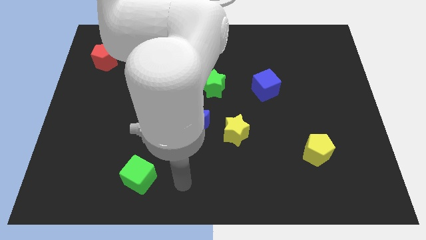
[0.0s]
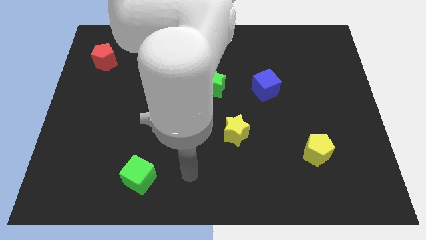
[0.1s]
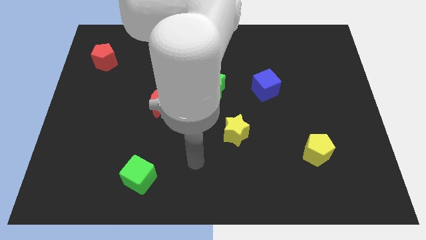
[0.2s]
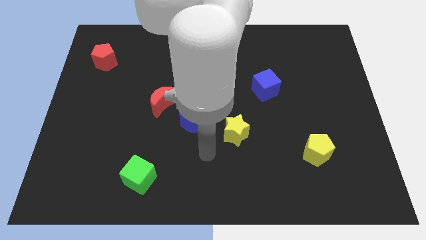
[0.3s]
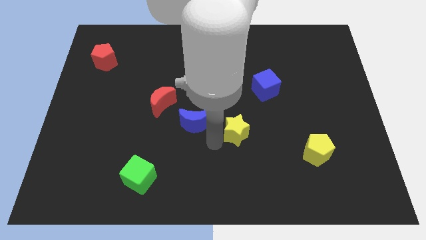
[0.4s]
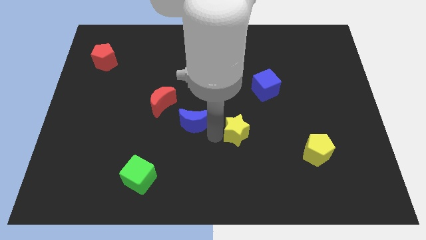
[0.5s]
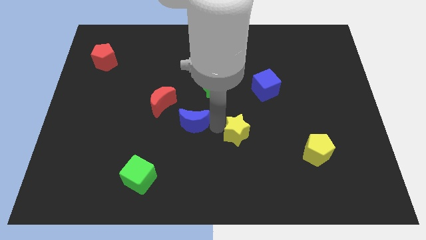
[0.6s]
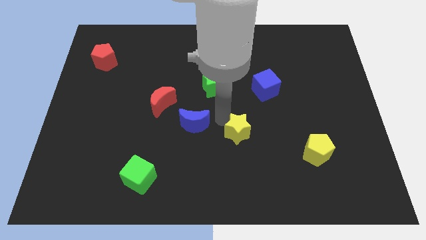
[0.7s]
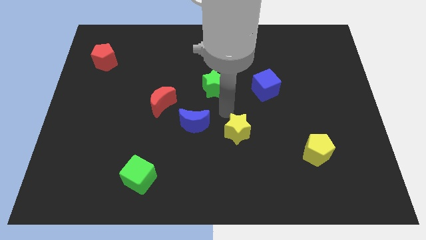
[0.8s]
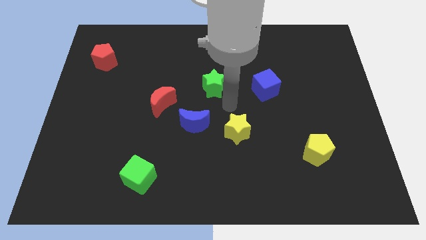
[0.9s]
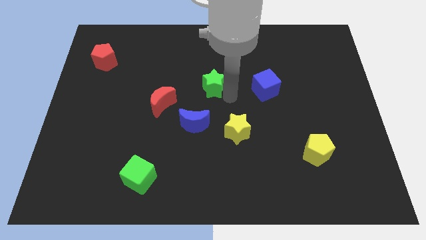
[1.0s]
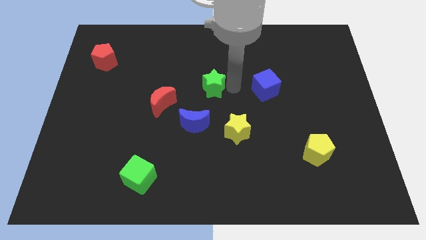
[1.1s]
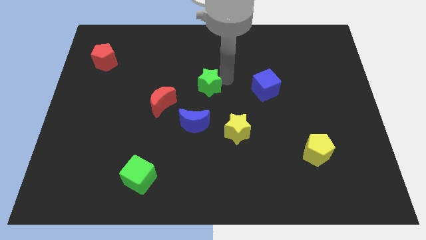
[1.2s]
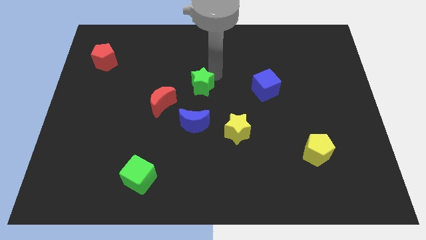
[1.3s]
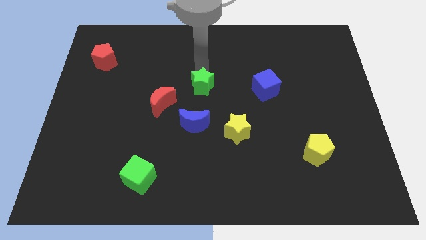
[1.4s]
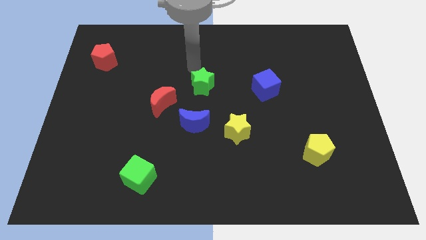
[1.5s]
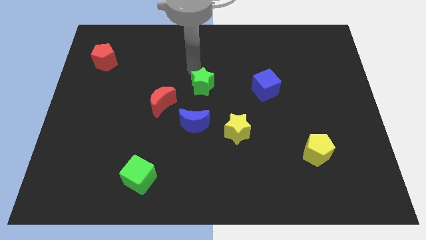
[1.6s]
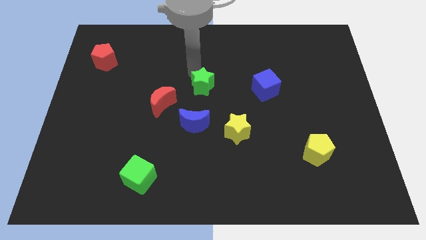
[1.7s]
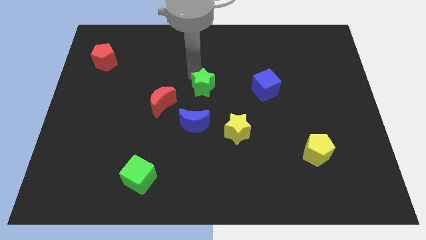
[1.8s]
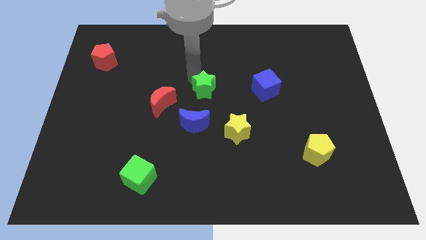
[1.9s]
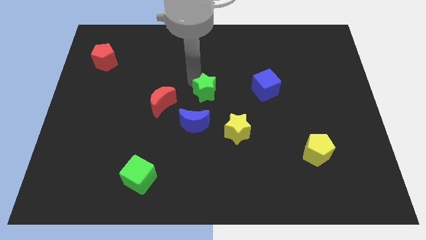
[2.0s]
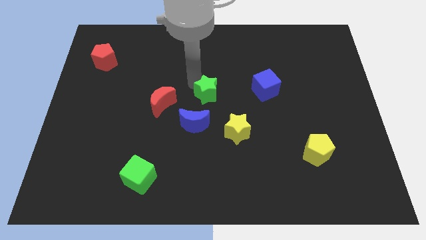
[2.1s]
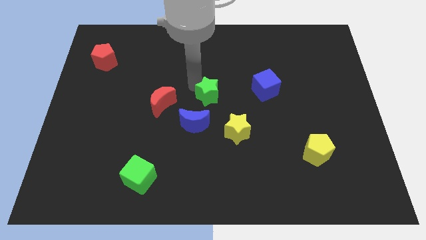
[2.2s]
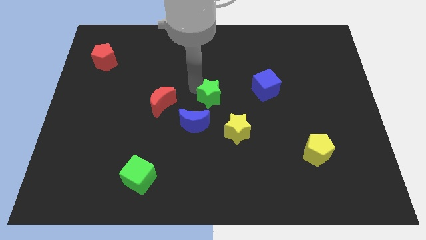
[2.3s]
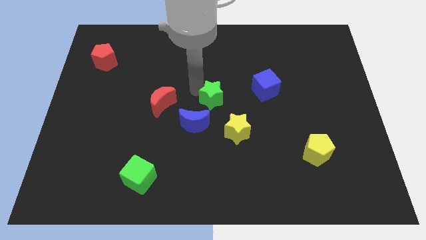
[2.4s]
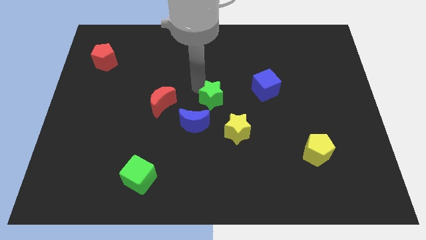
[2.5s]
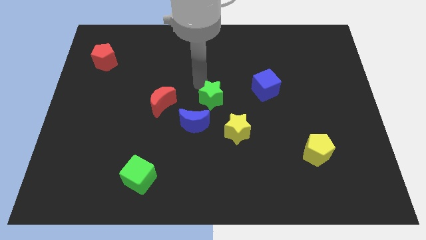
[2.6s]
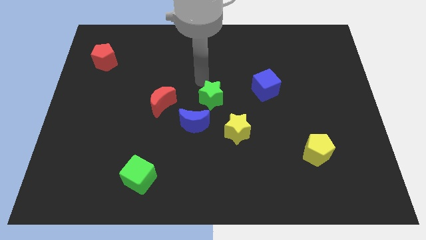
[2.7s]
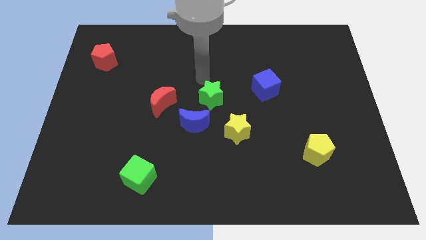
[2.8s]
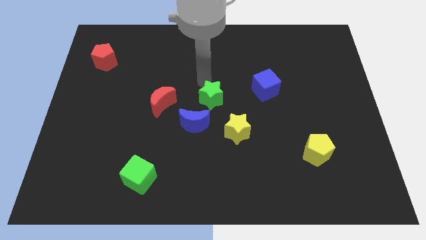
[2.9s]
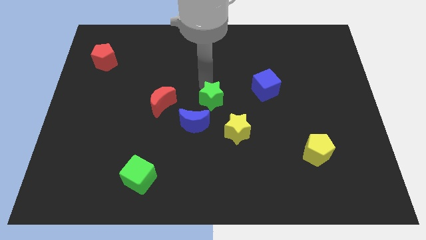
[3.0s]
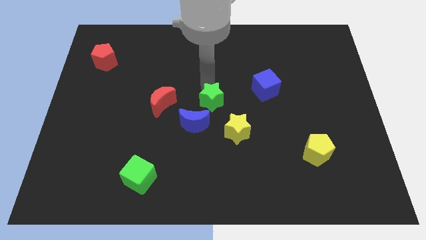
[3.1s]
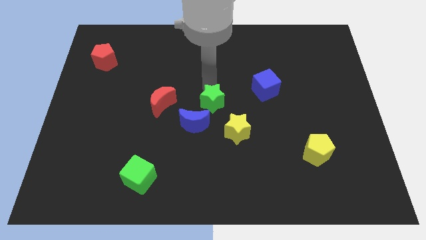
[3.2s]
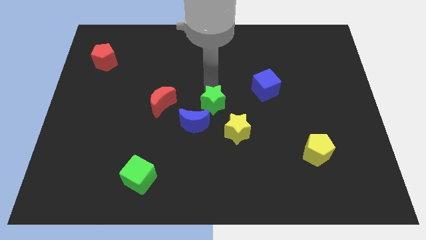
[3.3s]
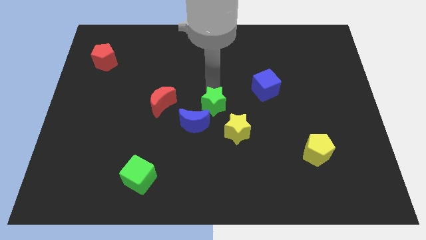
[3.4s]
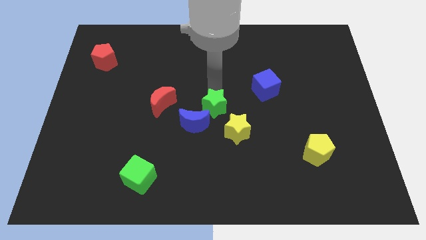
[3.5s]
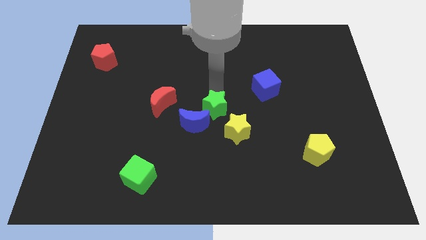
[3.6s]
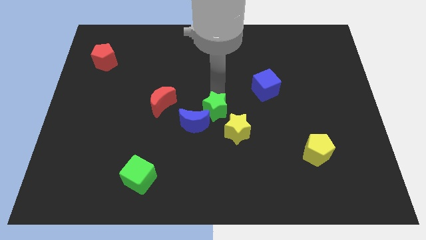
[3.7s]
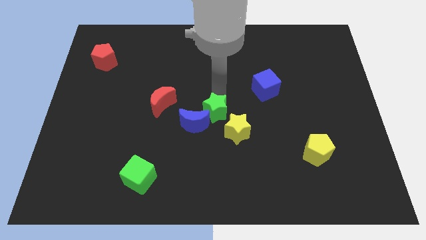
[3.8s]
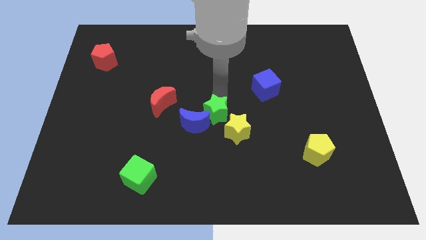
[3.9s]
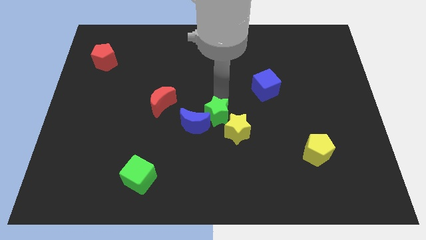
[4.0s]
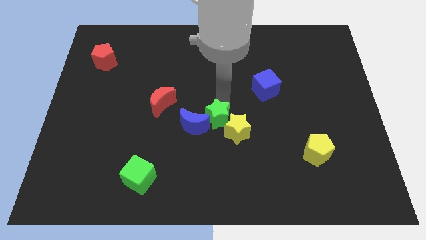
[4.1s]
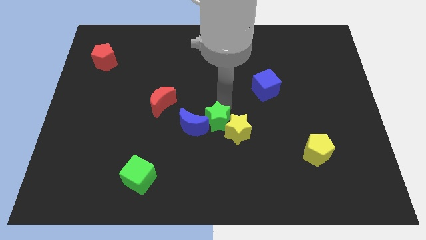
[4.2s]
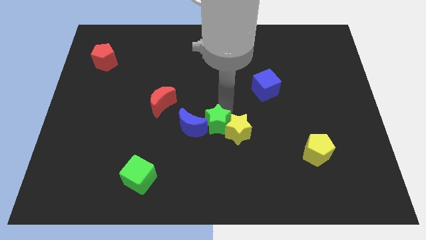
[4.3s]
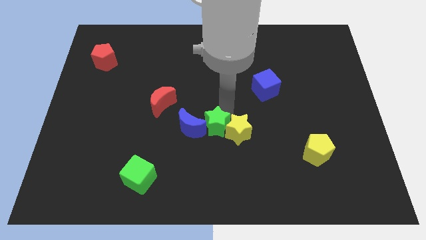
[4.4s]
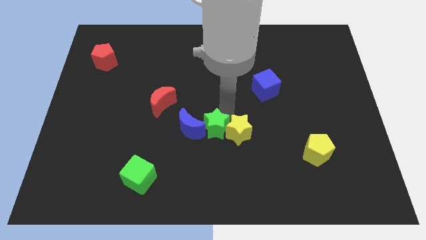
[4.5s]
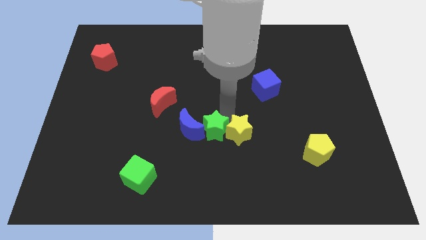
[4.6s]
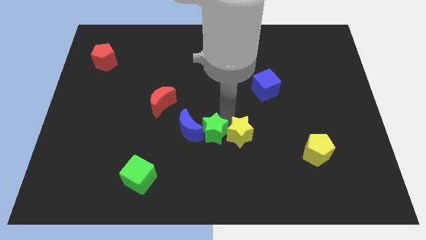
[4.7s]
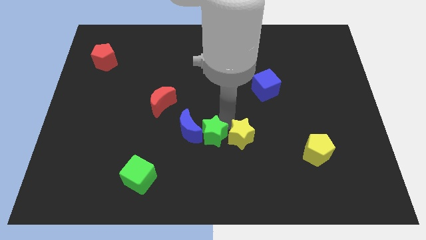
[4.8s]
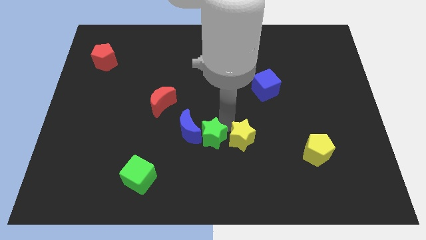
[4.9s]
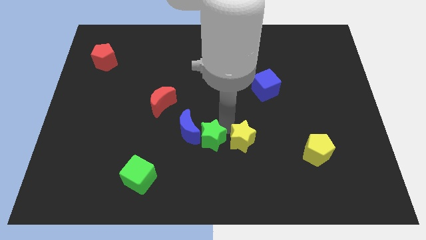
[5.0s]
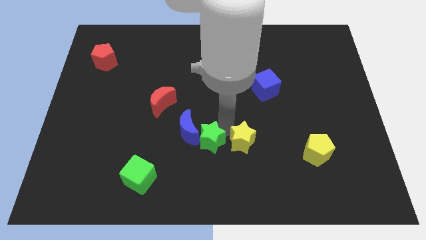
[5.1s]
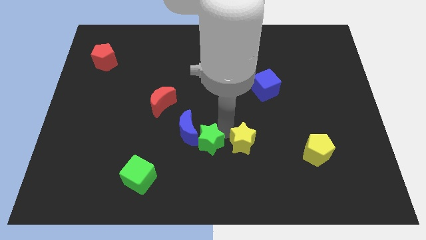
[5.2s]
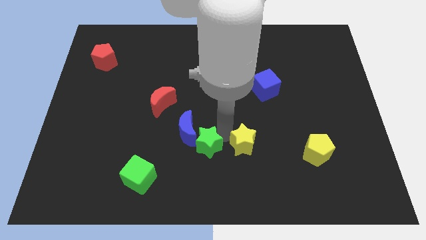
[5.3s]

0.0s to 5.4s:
slide the green star downwards and then left a little bit

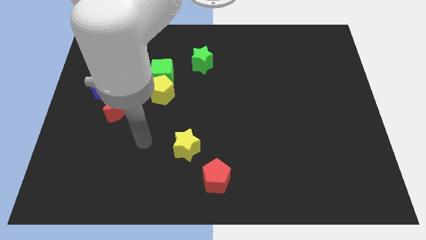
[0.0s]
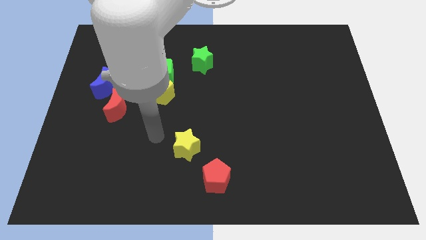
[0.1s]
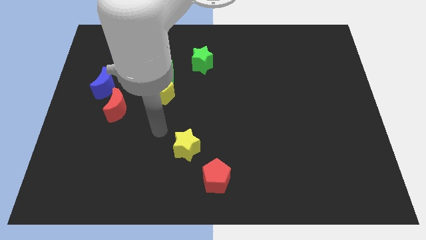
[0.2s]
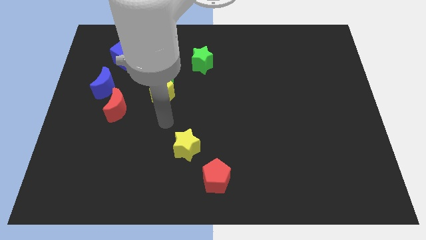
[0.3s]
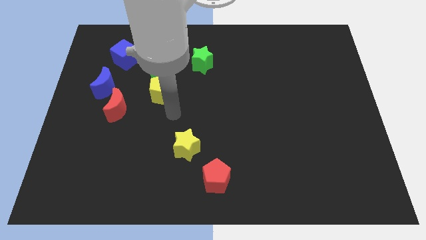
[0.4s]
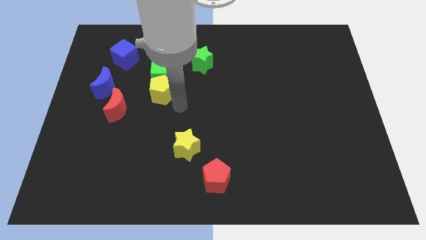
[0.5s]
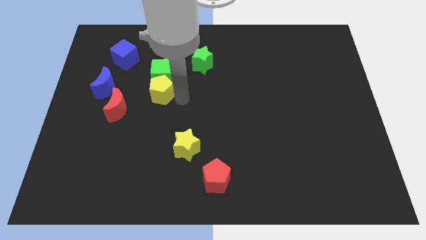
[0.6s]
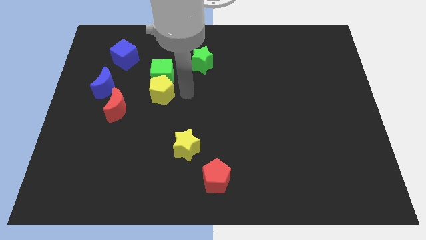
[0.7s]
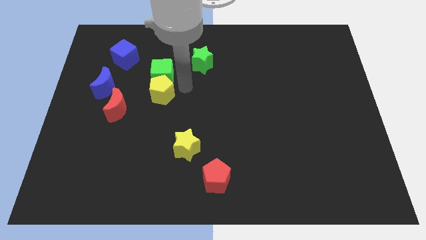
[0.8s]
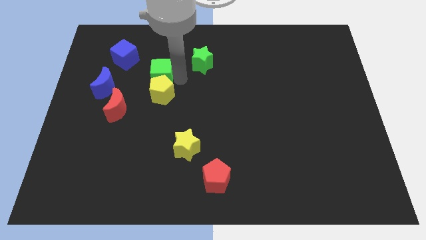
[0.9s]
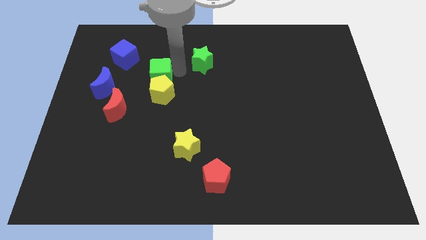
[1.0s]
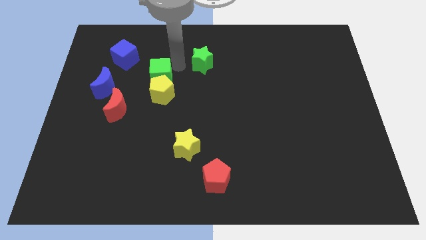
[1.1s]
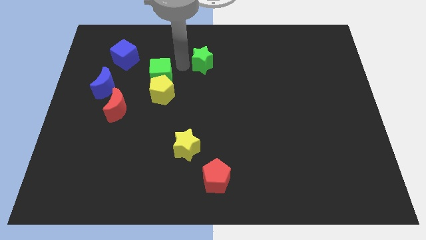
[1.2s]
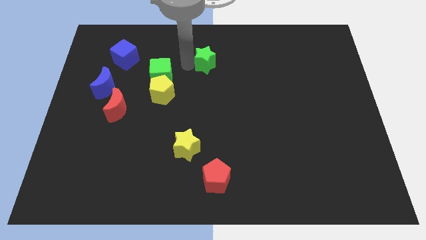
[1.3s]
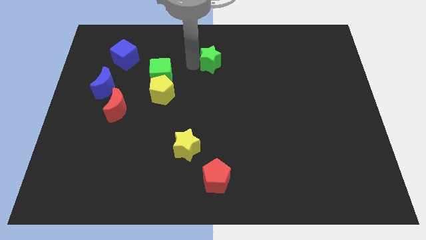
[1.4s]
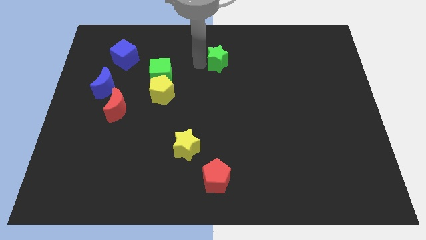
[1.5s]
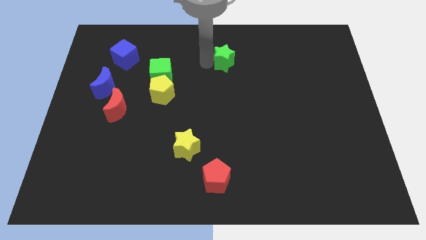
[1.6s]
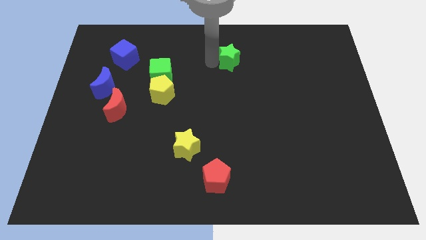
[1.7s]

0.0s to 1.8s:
slightly move the green star to the right

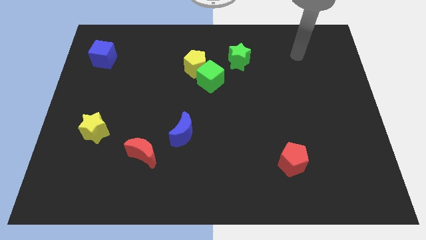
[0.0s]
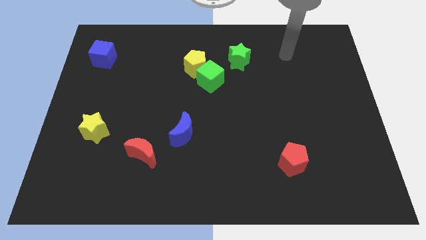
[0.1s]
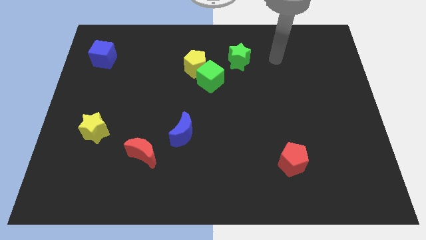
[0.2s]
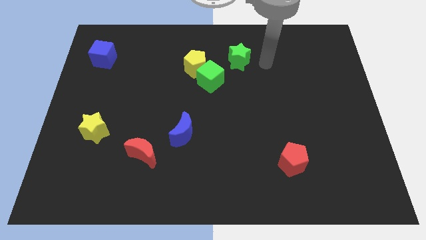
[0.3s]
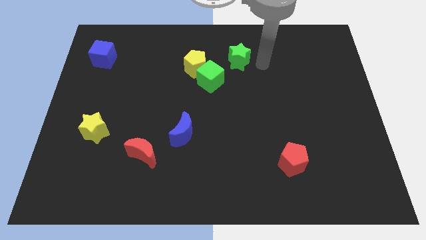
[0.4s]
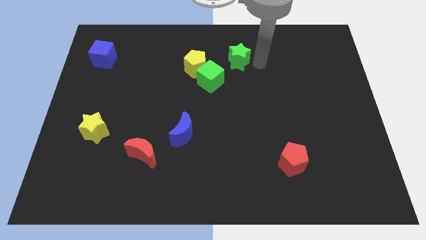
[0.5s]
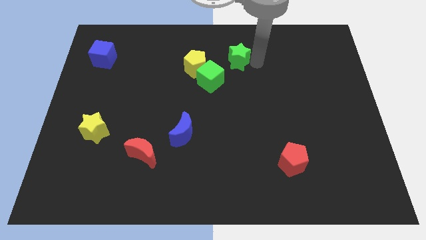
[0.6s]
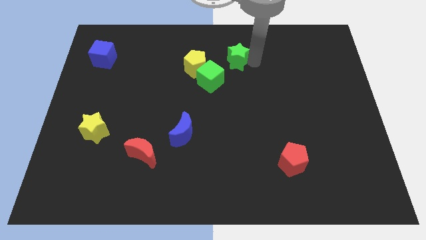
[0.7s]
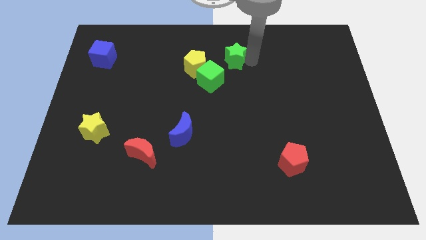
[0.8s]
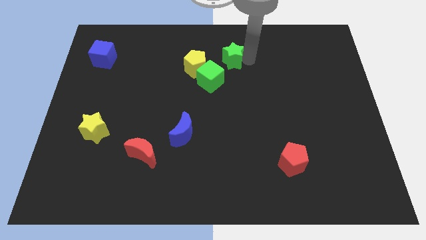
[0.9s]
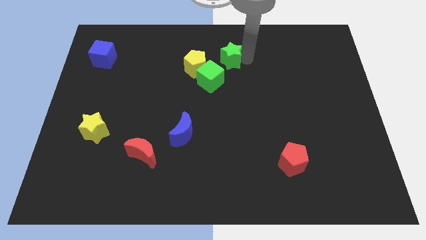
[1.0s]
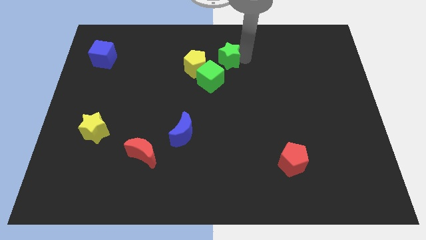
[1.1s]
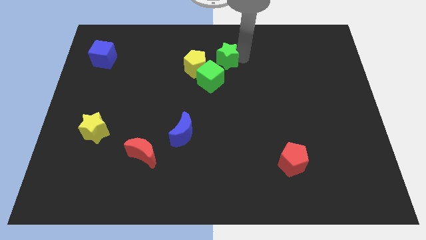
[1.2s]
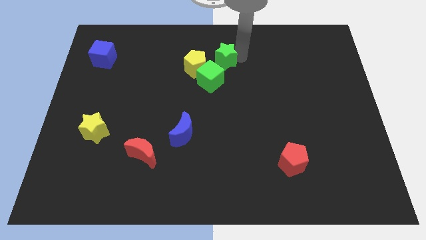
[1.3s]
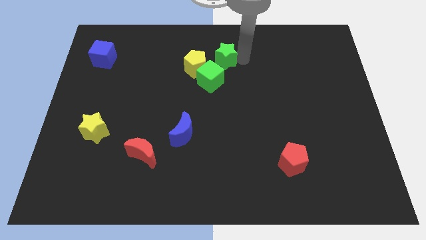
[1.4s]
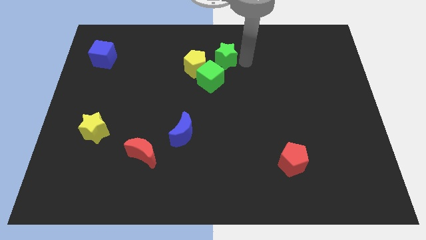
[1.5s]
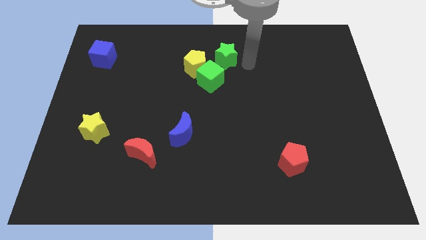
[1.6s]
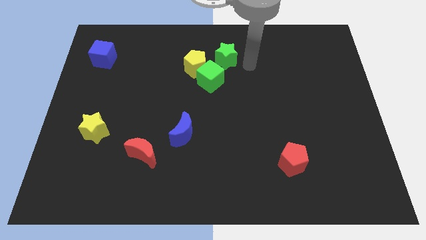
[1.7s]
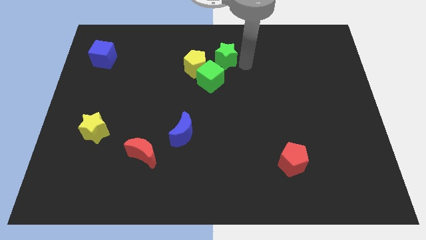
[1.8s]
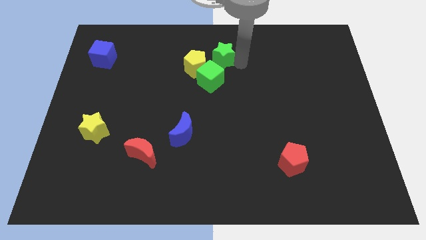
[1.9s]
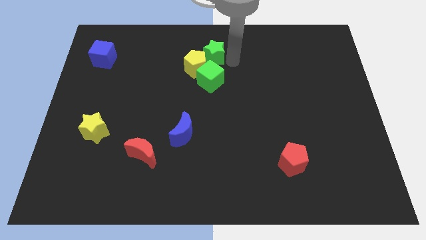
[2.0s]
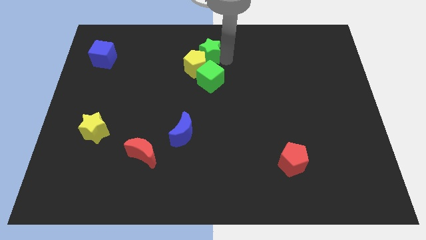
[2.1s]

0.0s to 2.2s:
move the green star left a bit
